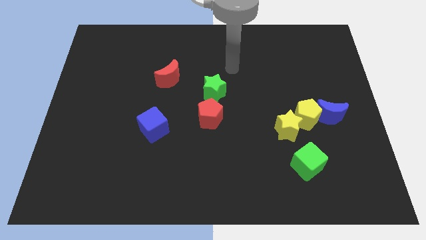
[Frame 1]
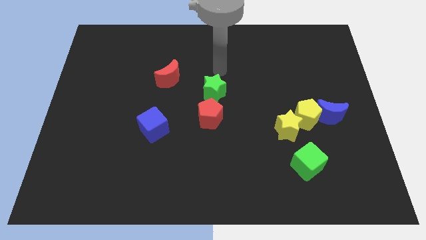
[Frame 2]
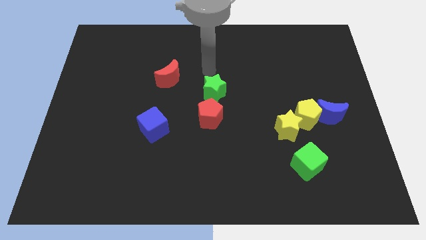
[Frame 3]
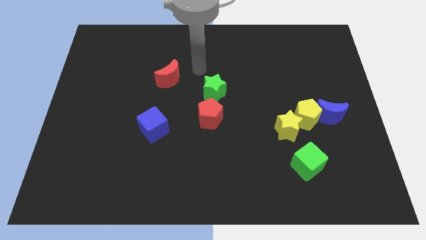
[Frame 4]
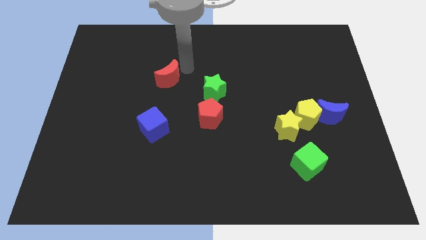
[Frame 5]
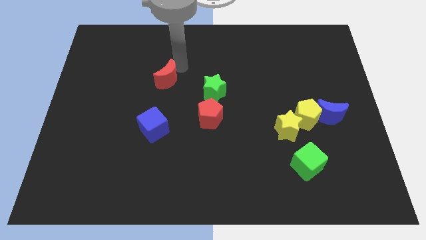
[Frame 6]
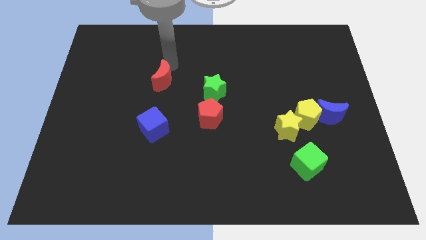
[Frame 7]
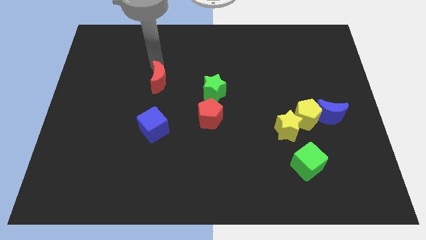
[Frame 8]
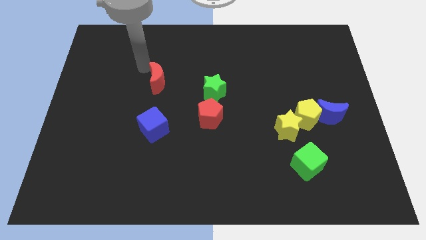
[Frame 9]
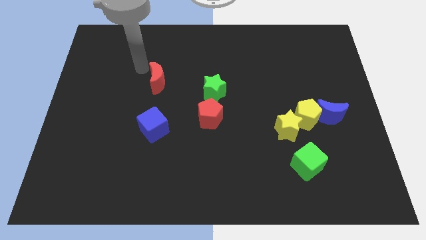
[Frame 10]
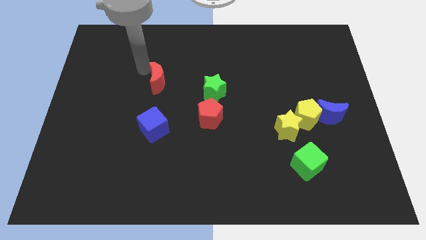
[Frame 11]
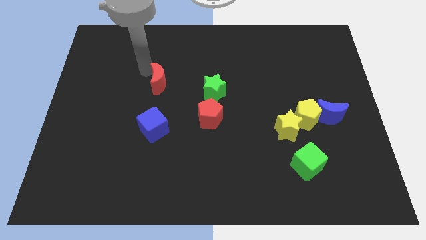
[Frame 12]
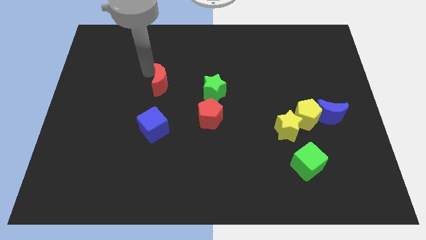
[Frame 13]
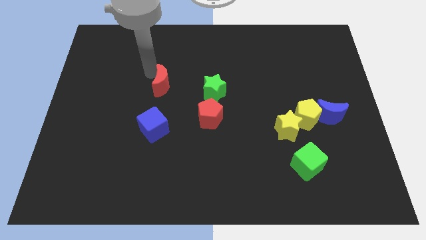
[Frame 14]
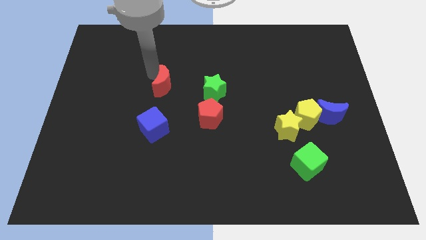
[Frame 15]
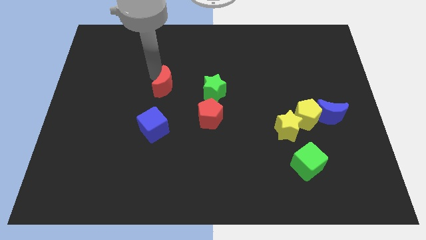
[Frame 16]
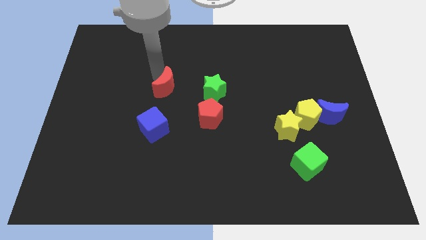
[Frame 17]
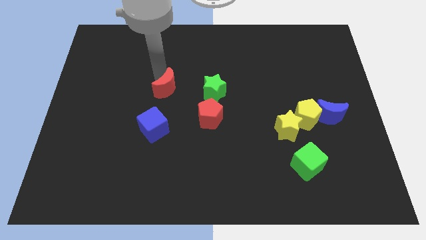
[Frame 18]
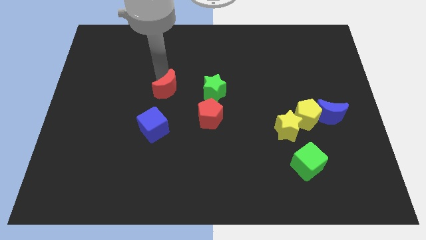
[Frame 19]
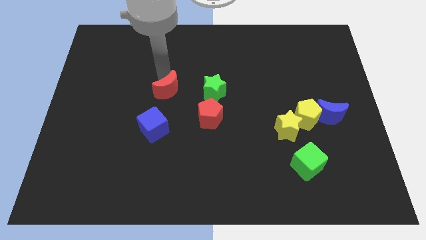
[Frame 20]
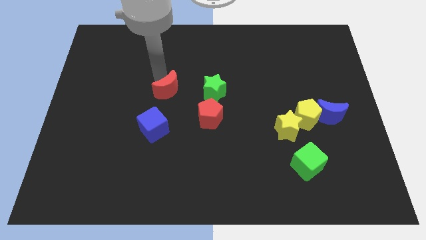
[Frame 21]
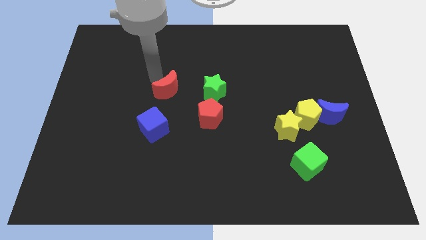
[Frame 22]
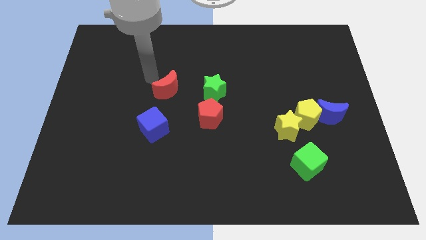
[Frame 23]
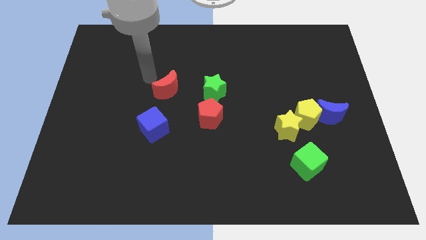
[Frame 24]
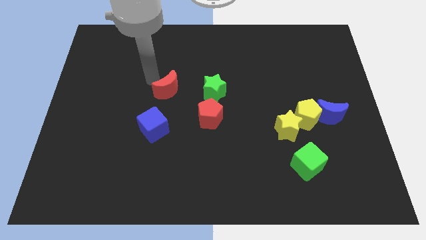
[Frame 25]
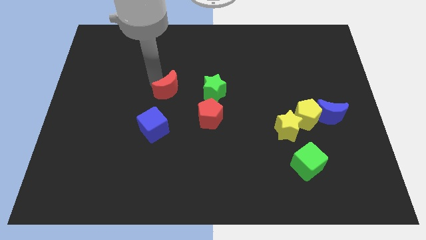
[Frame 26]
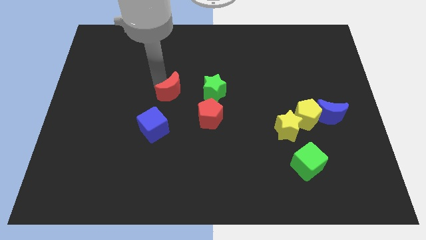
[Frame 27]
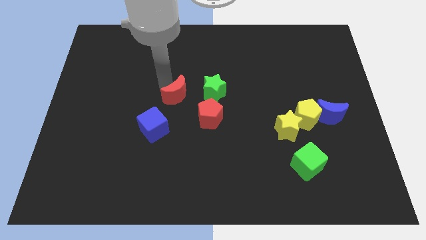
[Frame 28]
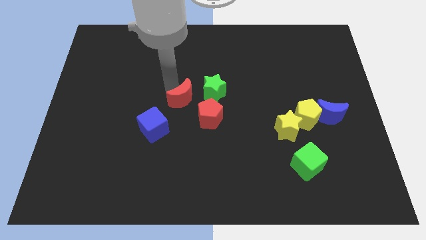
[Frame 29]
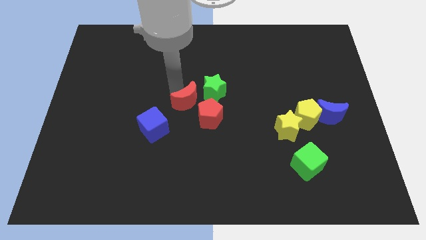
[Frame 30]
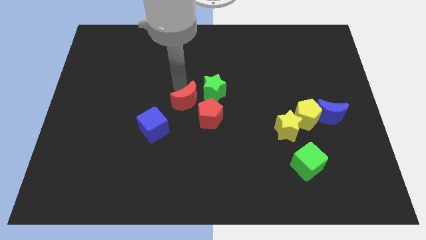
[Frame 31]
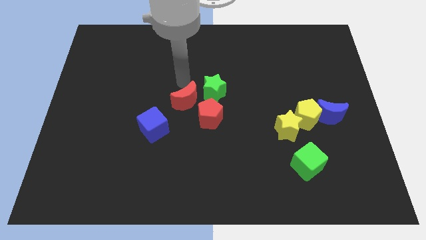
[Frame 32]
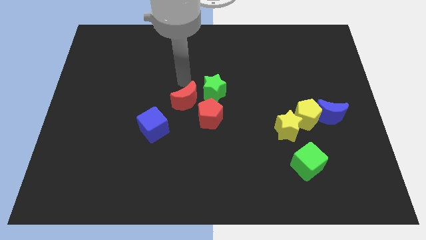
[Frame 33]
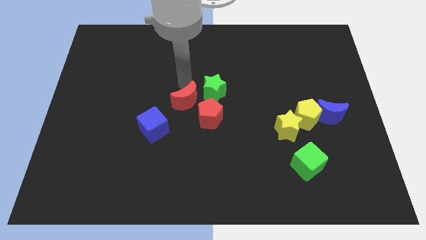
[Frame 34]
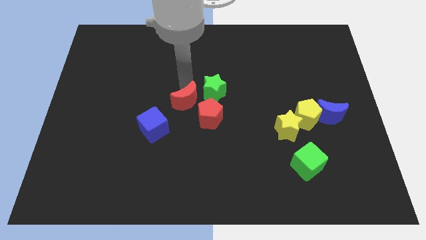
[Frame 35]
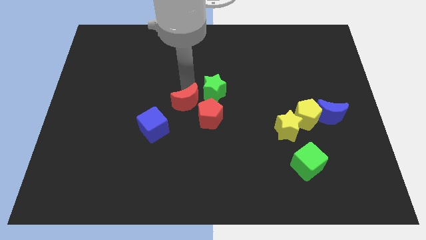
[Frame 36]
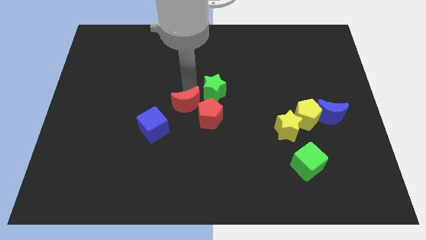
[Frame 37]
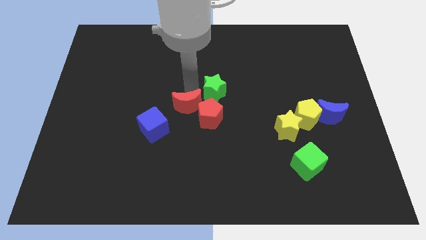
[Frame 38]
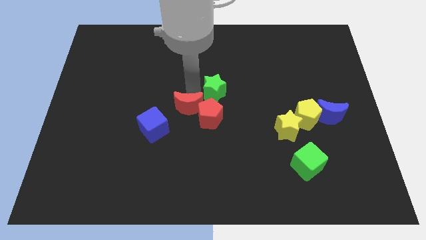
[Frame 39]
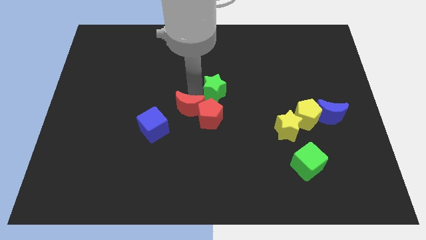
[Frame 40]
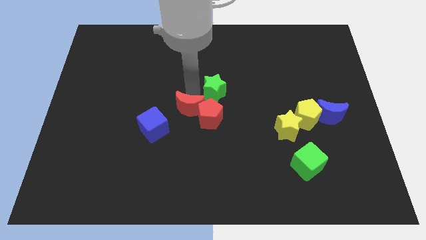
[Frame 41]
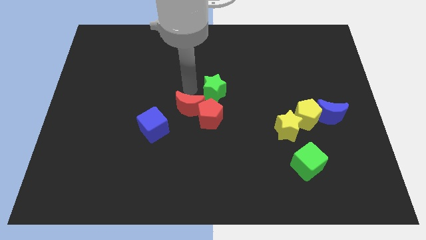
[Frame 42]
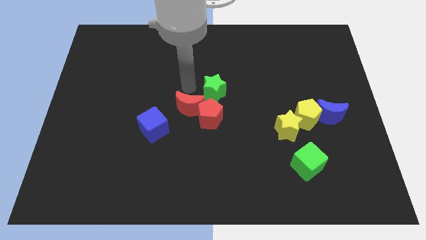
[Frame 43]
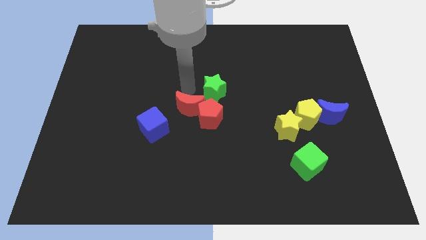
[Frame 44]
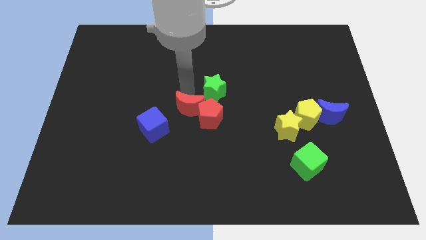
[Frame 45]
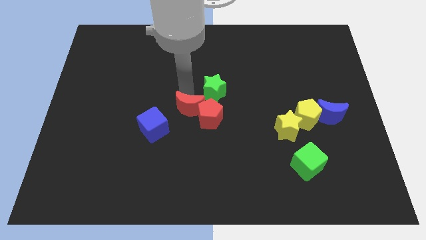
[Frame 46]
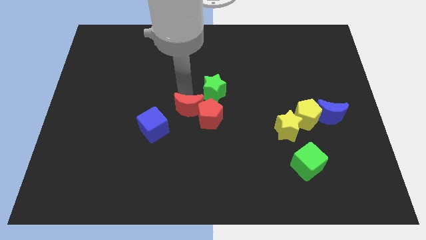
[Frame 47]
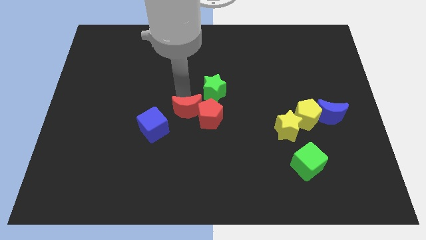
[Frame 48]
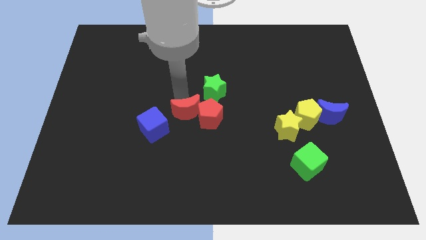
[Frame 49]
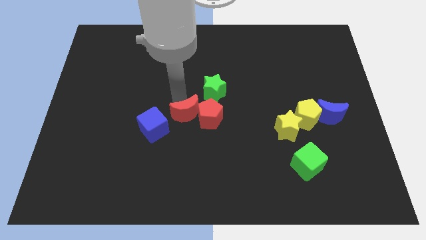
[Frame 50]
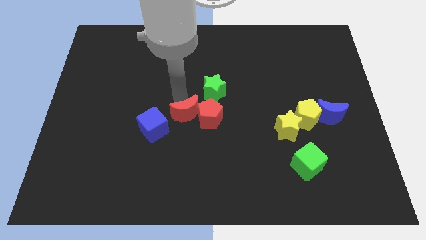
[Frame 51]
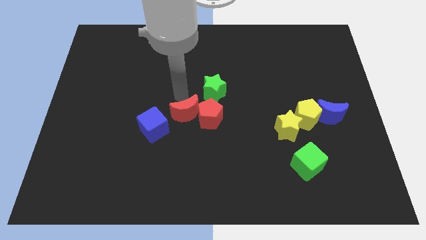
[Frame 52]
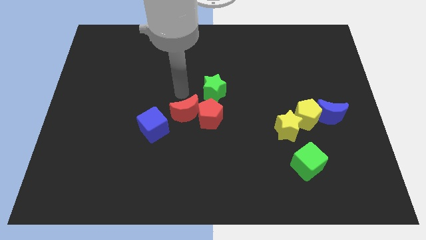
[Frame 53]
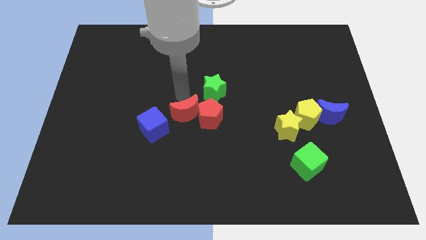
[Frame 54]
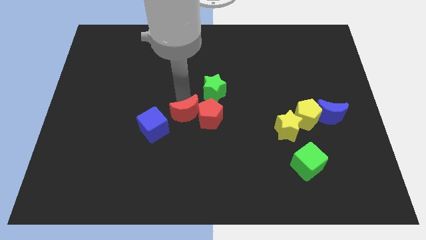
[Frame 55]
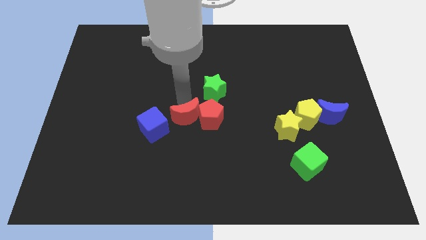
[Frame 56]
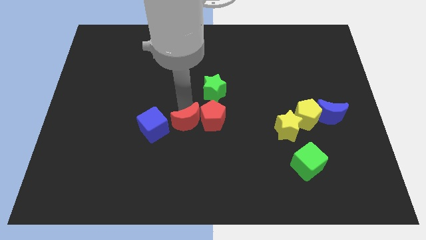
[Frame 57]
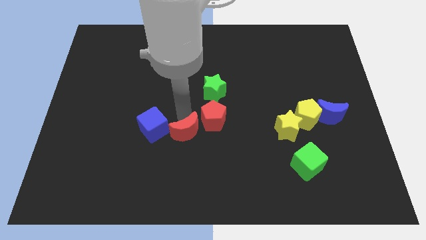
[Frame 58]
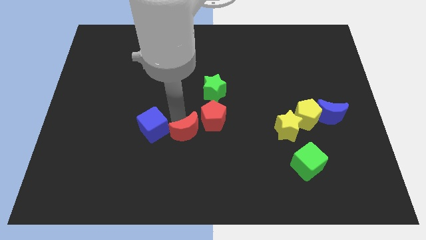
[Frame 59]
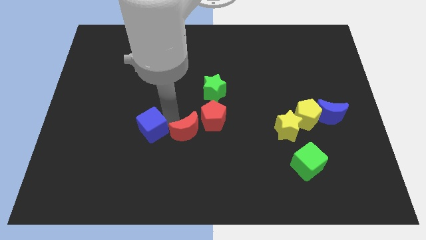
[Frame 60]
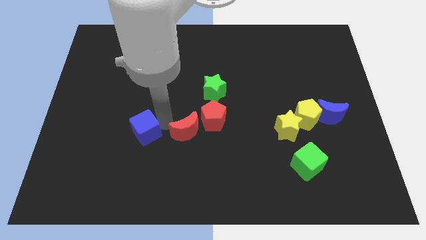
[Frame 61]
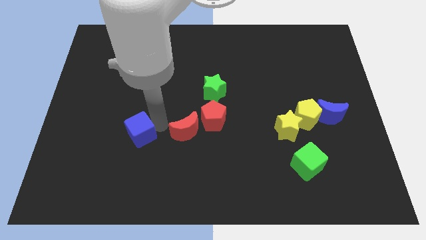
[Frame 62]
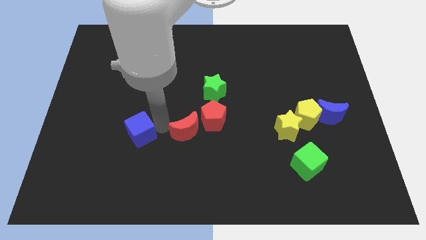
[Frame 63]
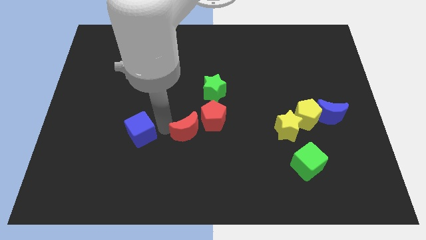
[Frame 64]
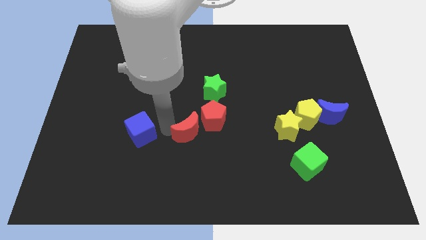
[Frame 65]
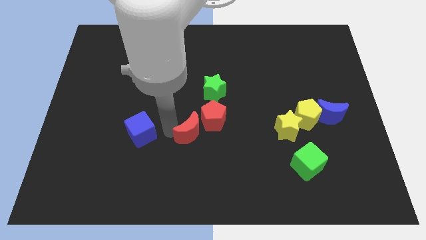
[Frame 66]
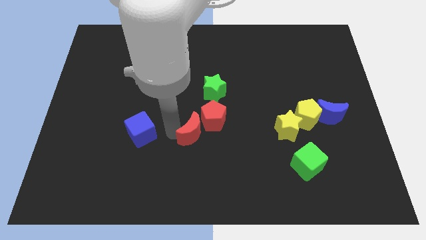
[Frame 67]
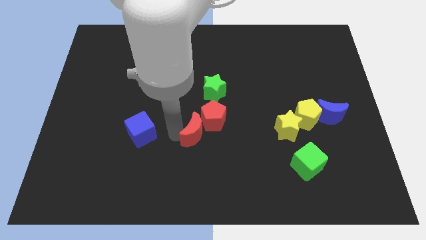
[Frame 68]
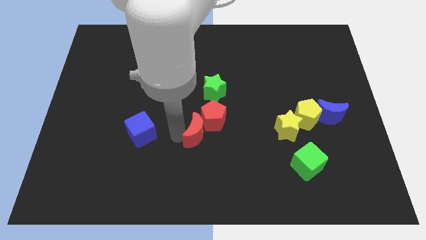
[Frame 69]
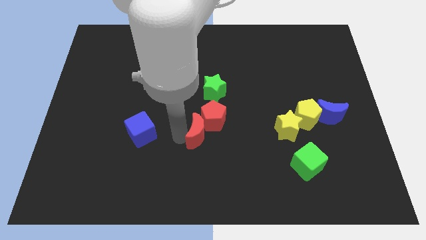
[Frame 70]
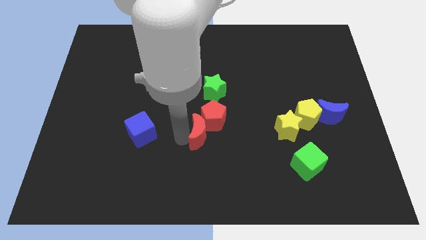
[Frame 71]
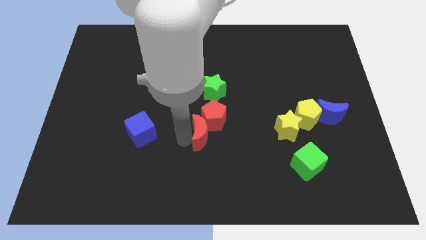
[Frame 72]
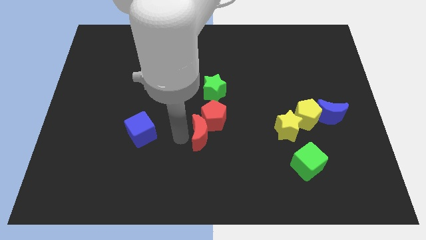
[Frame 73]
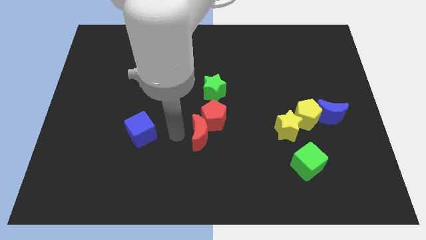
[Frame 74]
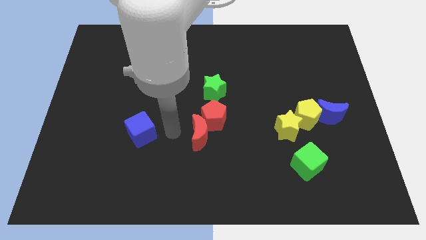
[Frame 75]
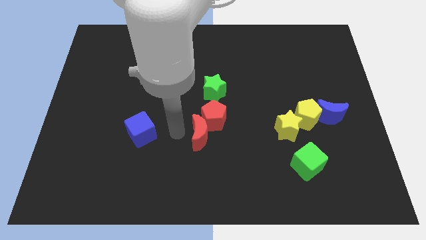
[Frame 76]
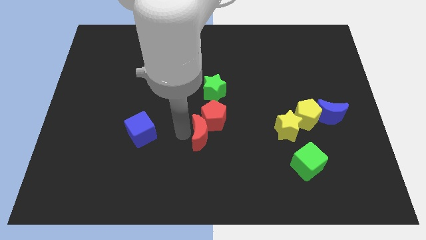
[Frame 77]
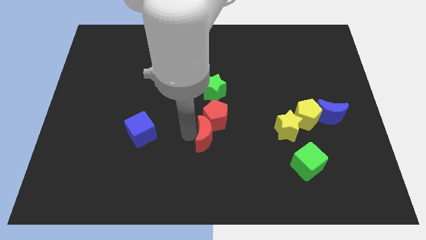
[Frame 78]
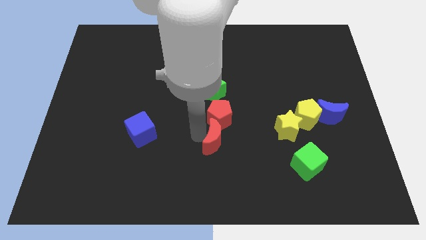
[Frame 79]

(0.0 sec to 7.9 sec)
slide the red moon downwards and right diagonally
